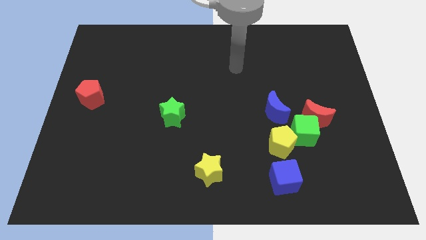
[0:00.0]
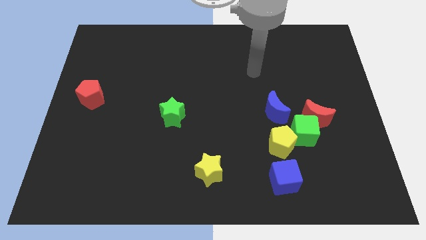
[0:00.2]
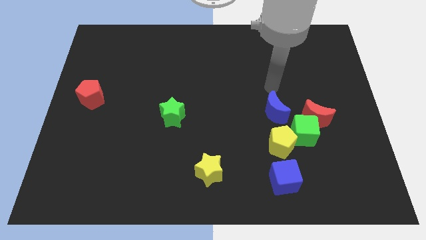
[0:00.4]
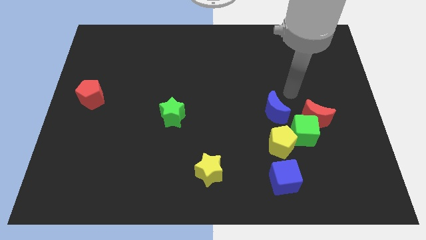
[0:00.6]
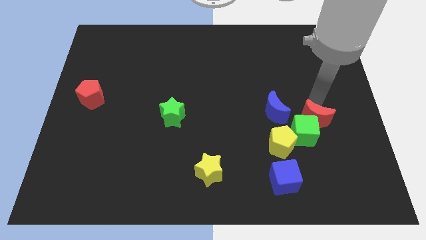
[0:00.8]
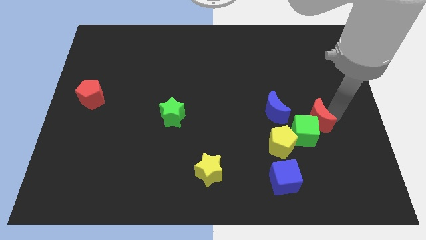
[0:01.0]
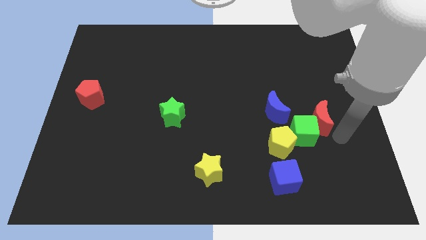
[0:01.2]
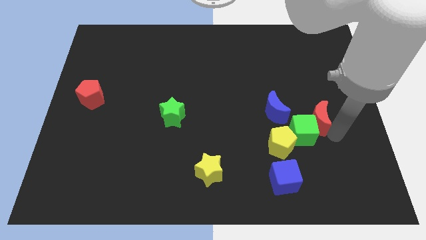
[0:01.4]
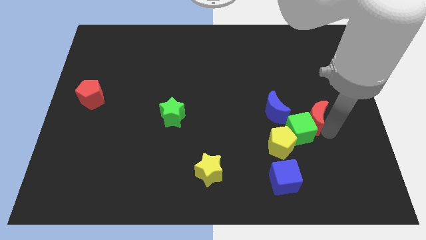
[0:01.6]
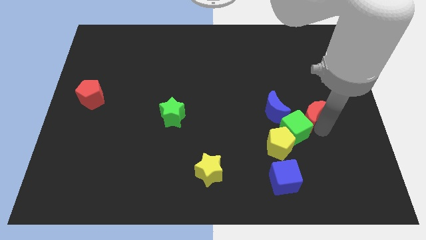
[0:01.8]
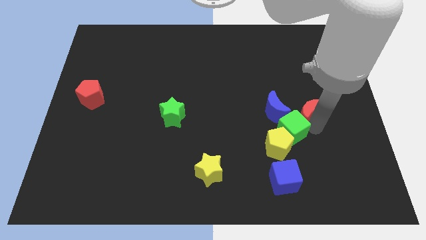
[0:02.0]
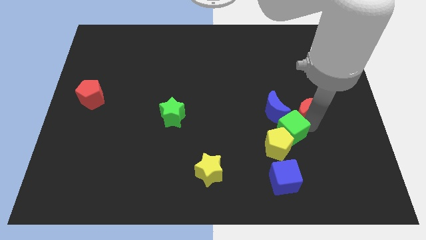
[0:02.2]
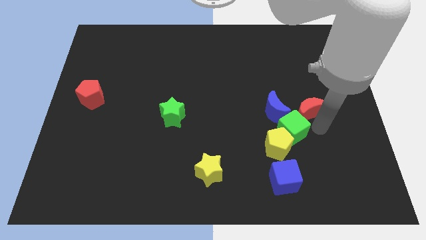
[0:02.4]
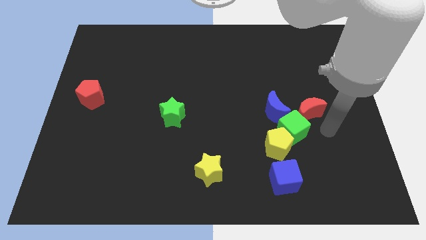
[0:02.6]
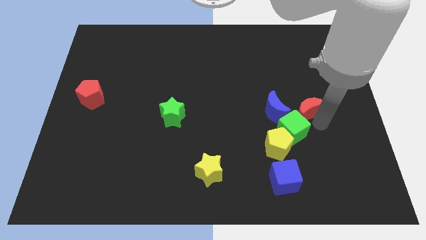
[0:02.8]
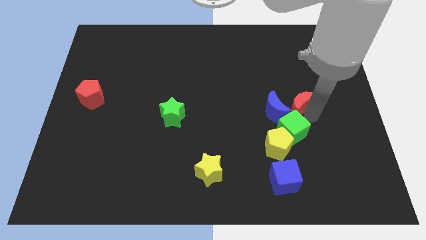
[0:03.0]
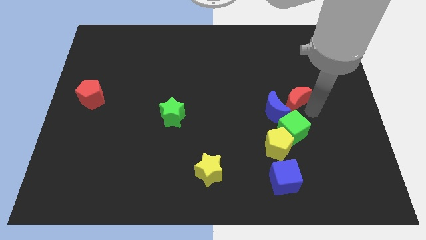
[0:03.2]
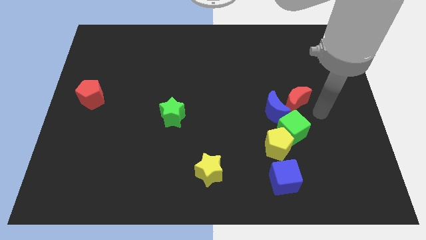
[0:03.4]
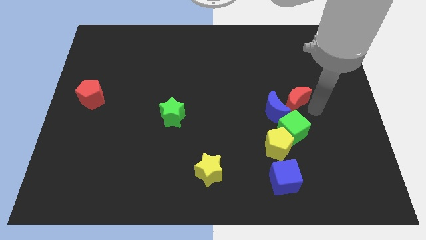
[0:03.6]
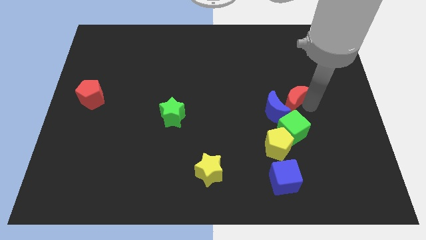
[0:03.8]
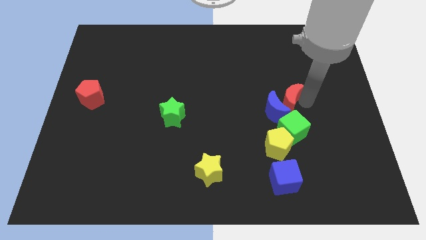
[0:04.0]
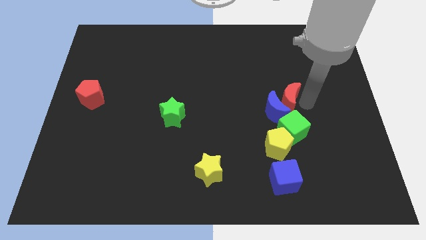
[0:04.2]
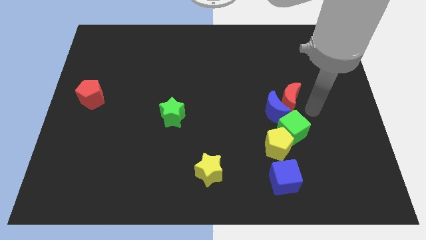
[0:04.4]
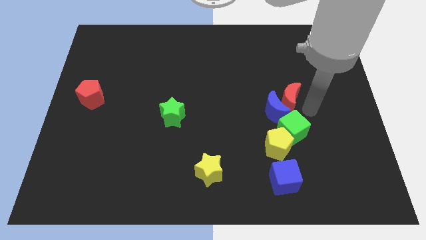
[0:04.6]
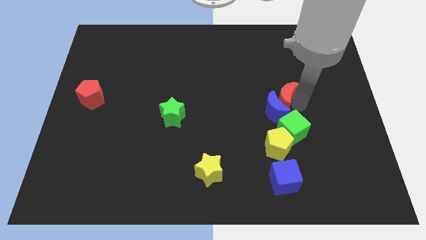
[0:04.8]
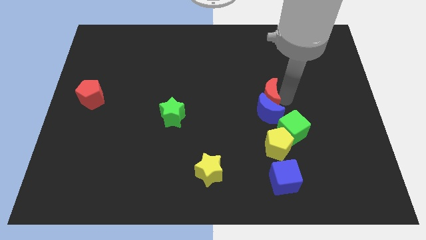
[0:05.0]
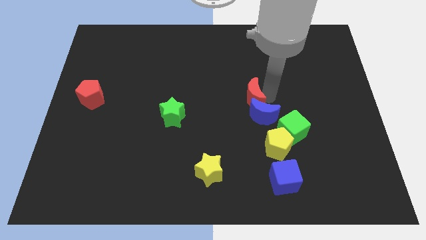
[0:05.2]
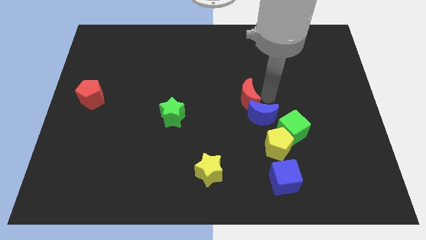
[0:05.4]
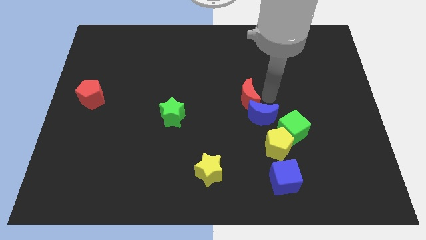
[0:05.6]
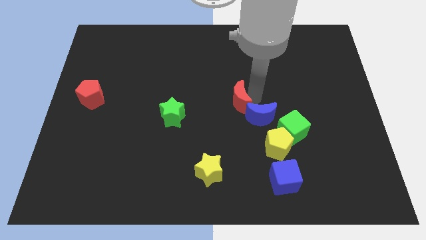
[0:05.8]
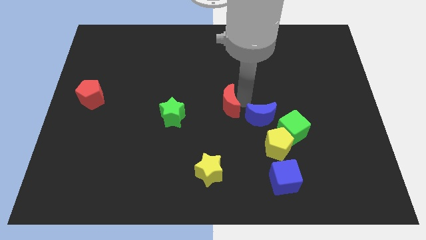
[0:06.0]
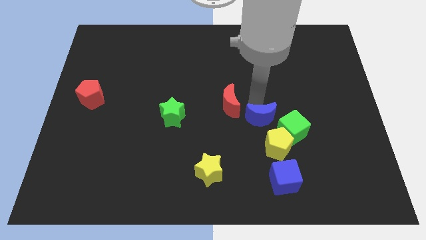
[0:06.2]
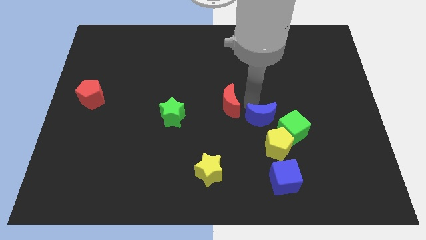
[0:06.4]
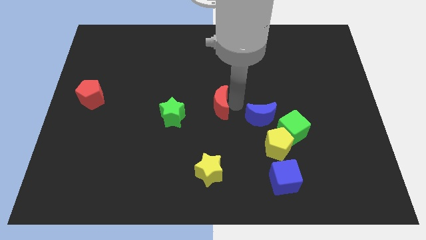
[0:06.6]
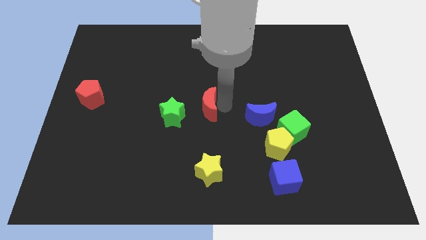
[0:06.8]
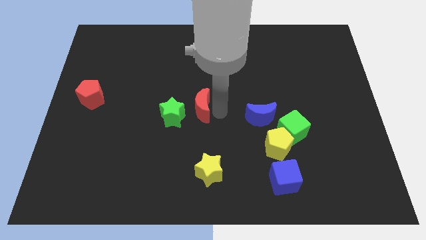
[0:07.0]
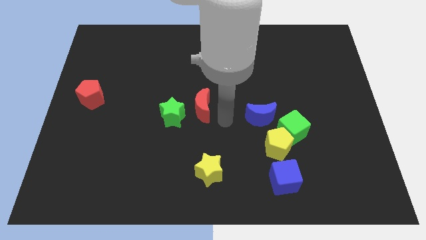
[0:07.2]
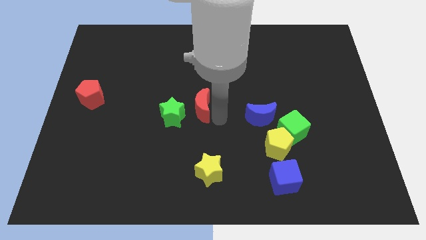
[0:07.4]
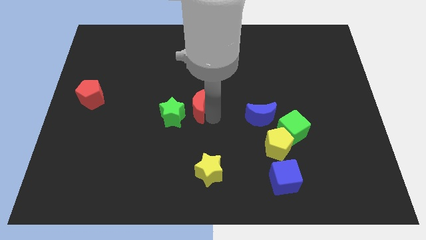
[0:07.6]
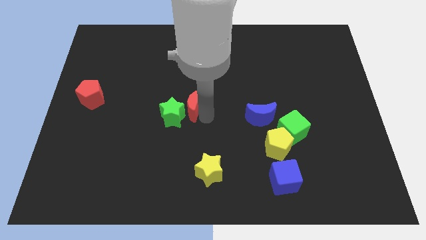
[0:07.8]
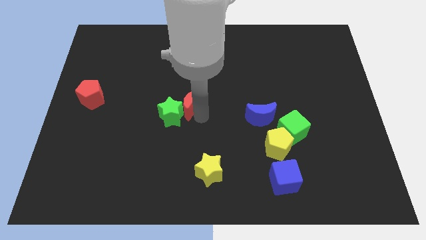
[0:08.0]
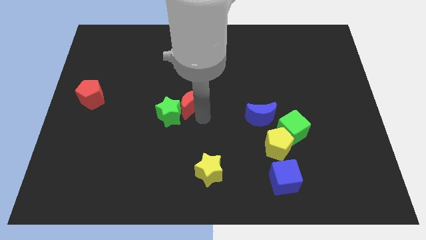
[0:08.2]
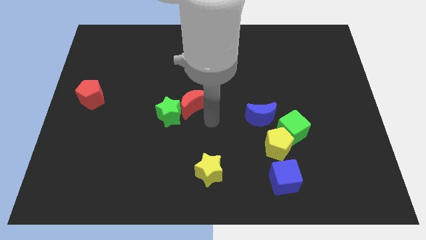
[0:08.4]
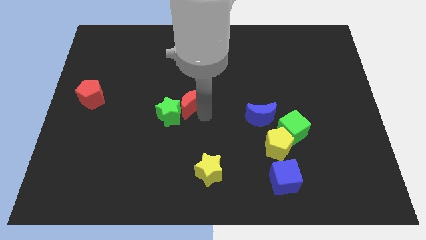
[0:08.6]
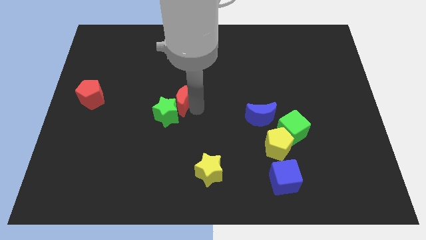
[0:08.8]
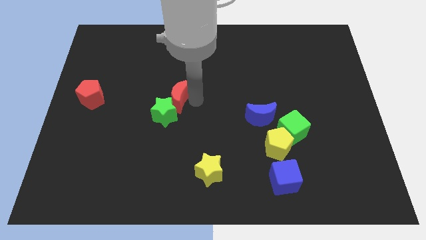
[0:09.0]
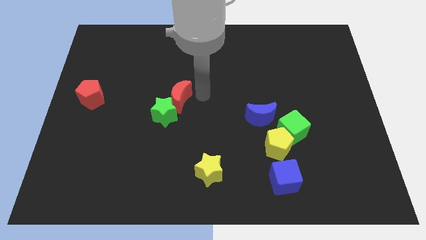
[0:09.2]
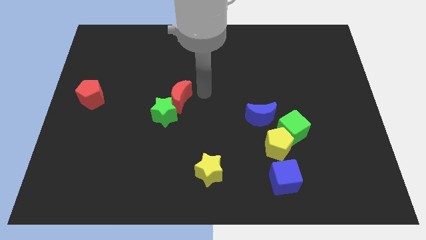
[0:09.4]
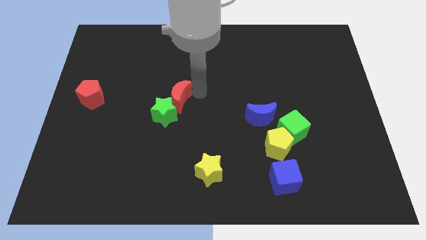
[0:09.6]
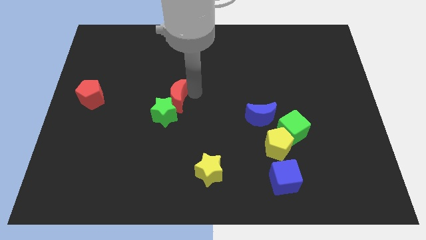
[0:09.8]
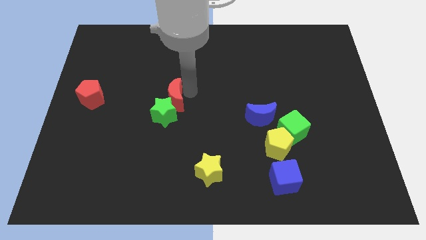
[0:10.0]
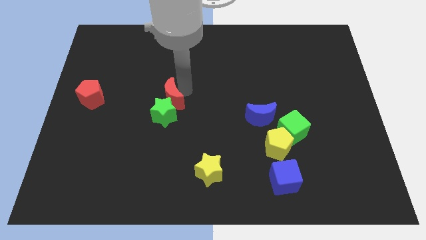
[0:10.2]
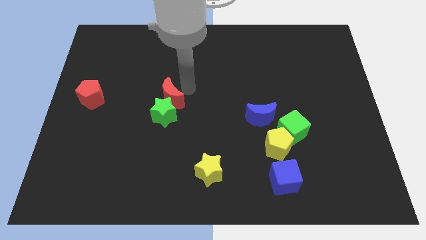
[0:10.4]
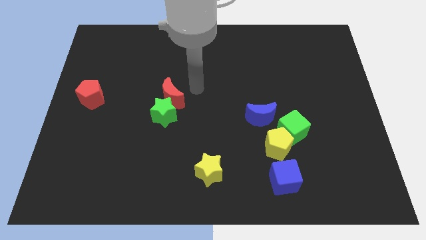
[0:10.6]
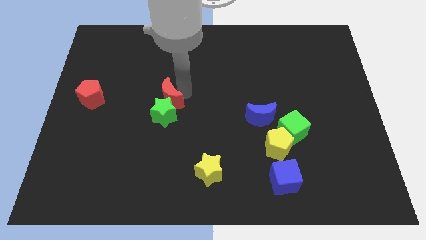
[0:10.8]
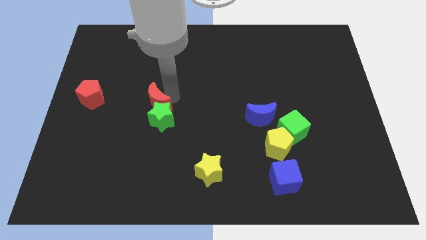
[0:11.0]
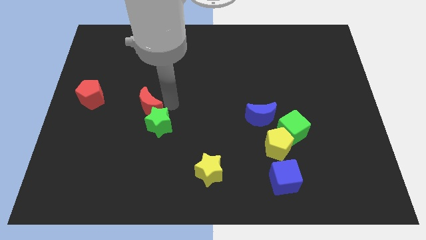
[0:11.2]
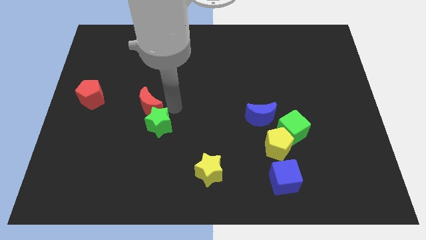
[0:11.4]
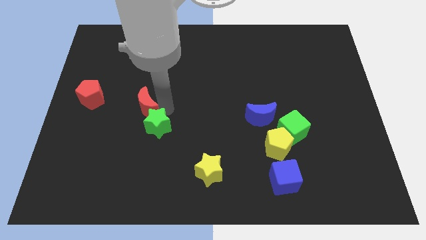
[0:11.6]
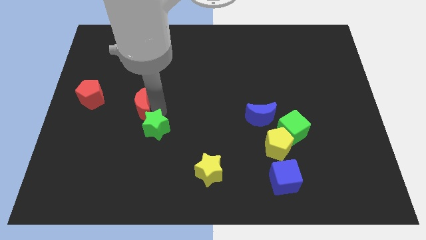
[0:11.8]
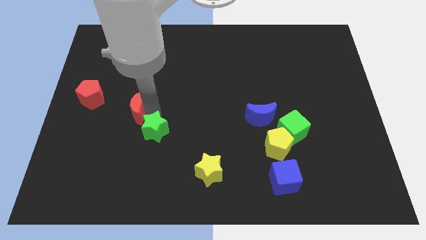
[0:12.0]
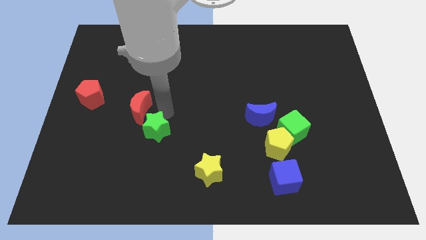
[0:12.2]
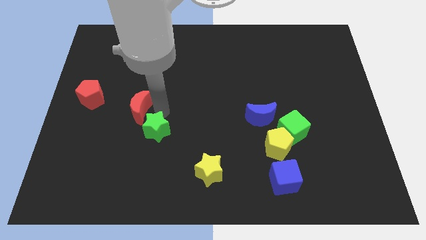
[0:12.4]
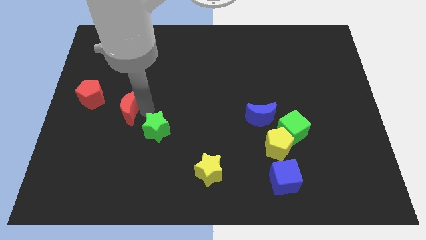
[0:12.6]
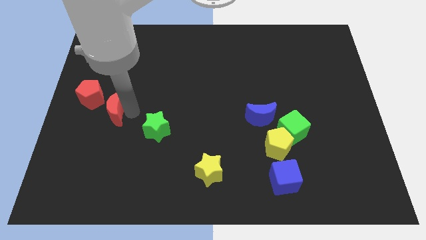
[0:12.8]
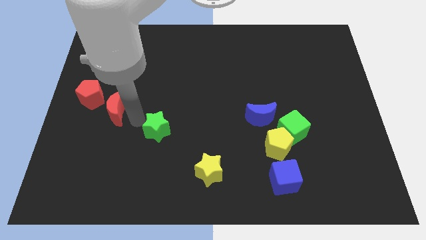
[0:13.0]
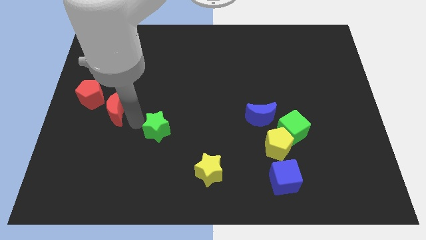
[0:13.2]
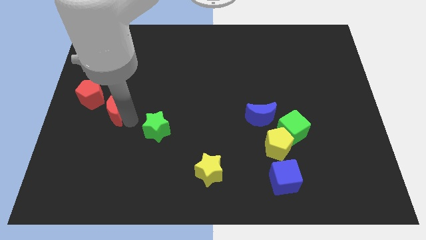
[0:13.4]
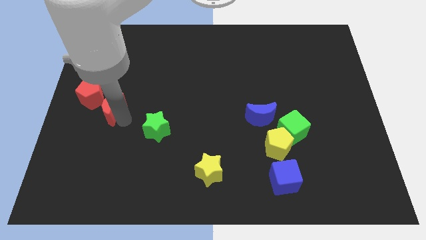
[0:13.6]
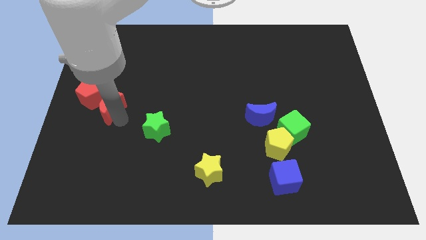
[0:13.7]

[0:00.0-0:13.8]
slide the red moon to the red pentagon

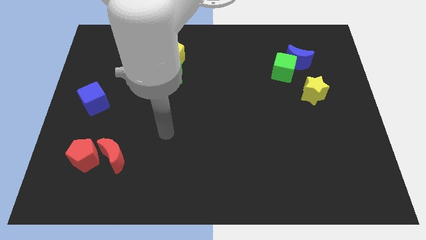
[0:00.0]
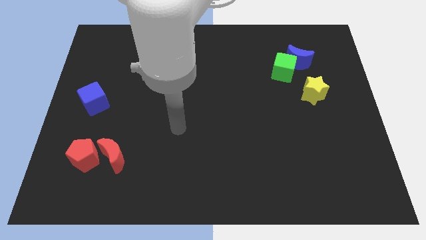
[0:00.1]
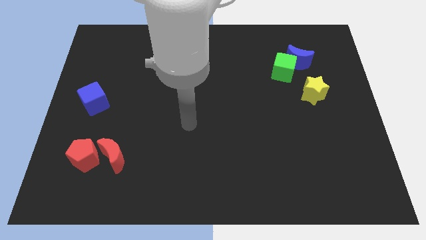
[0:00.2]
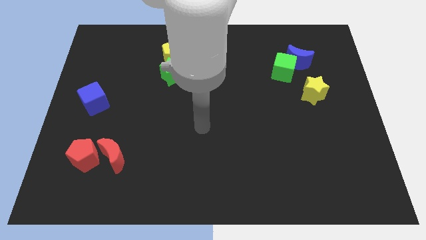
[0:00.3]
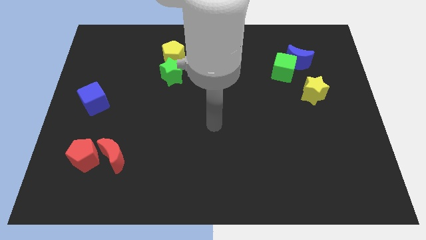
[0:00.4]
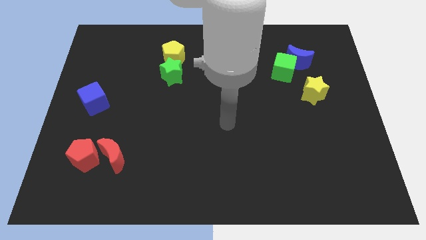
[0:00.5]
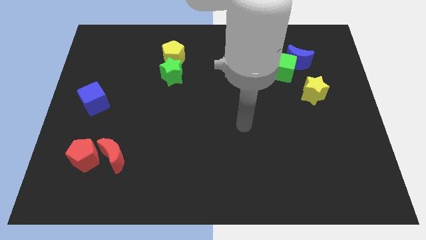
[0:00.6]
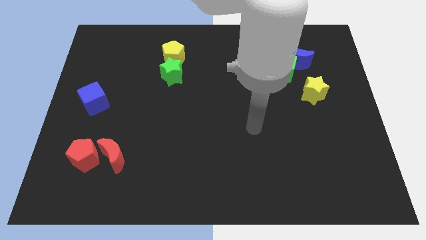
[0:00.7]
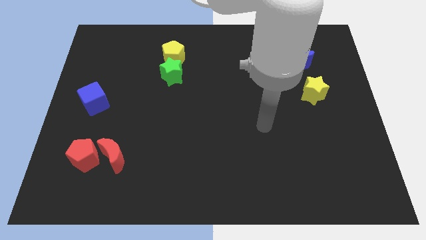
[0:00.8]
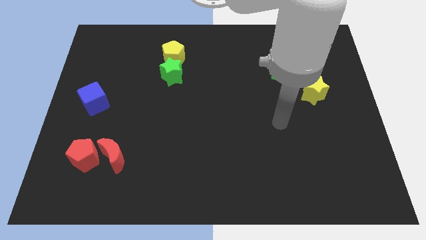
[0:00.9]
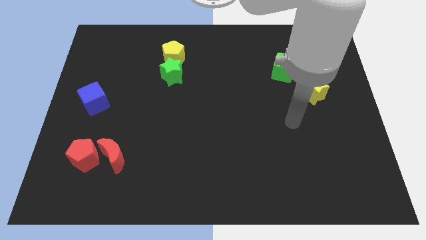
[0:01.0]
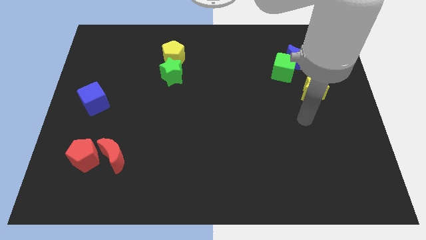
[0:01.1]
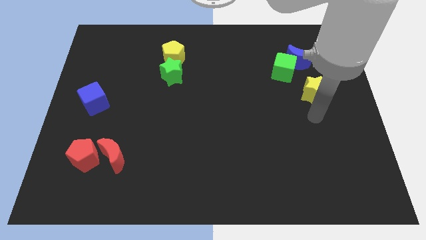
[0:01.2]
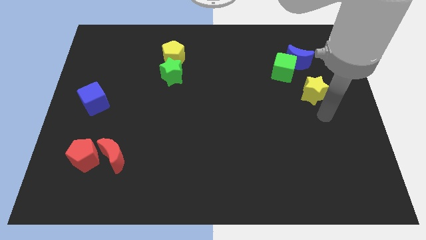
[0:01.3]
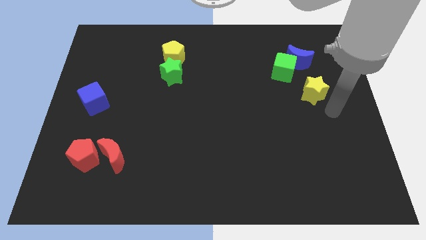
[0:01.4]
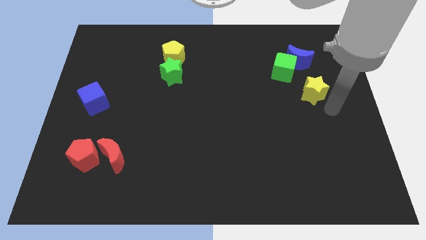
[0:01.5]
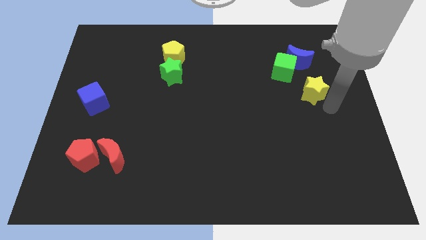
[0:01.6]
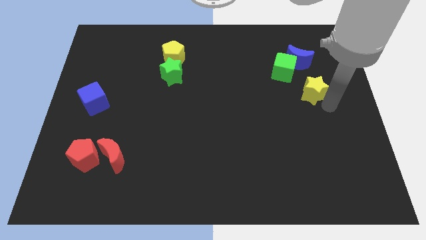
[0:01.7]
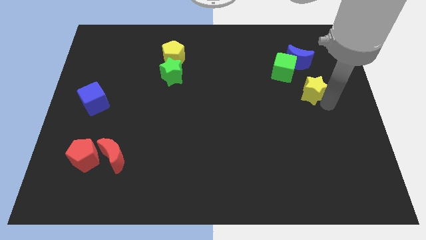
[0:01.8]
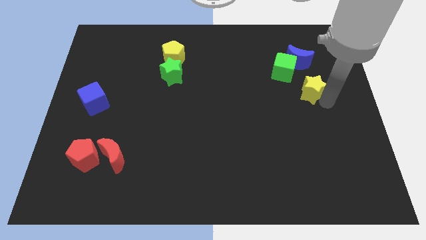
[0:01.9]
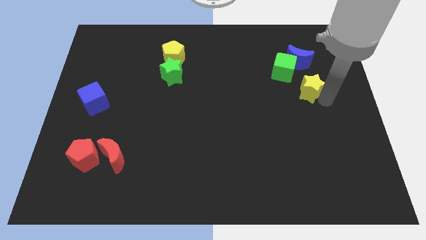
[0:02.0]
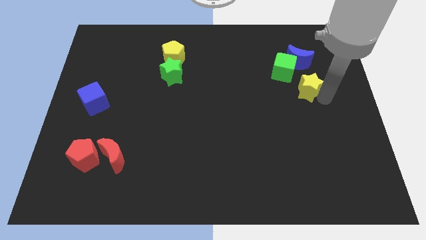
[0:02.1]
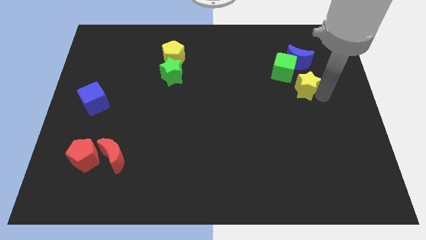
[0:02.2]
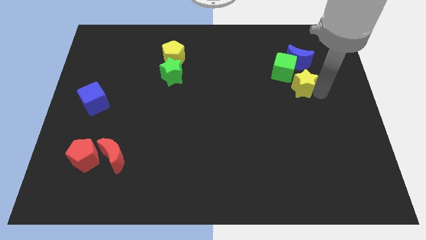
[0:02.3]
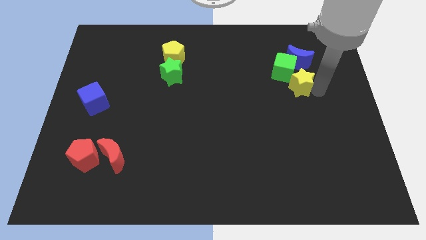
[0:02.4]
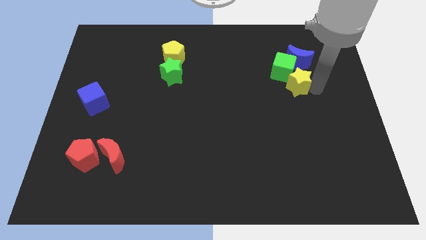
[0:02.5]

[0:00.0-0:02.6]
slide the yellow star towards the green cube
